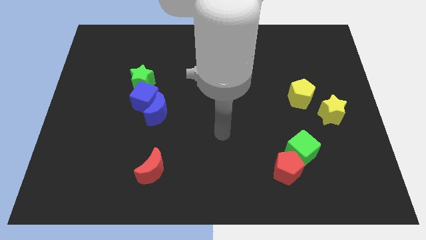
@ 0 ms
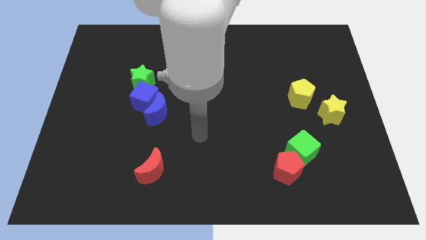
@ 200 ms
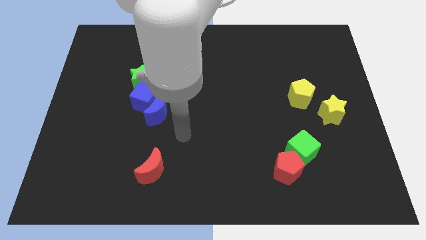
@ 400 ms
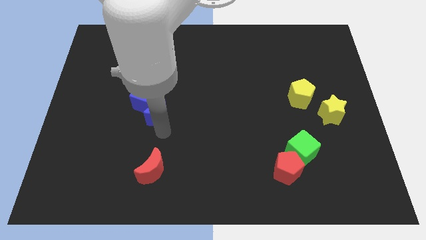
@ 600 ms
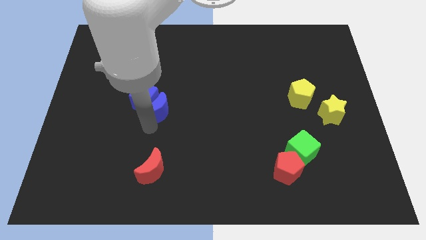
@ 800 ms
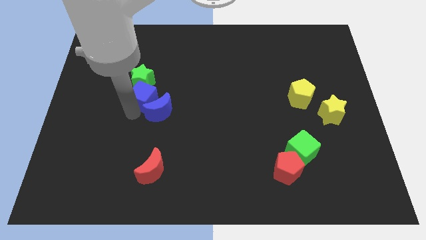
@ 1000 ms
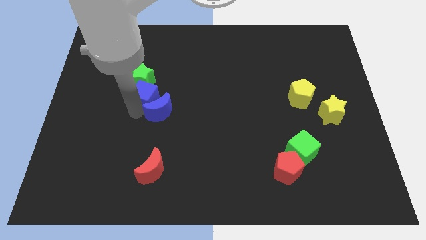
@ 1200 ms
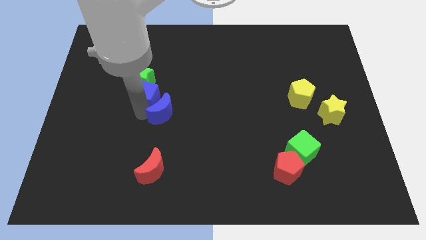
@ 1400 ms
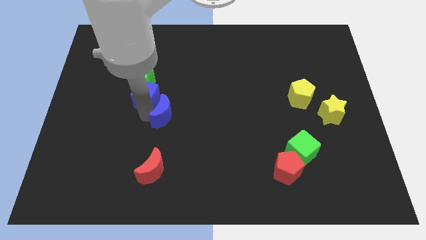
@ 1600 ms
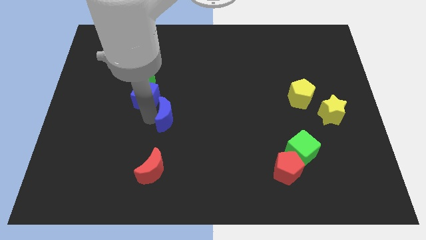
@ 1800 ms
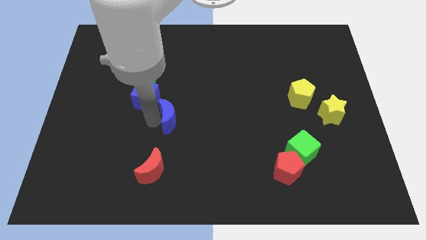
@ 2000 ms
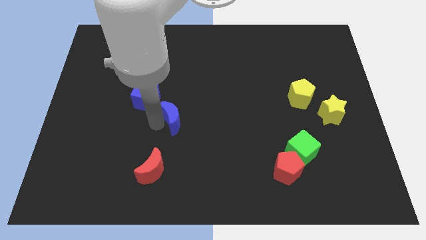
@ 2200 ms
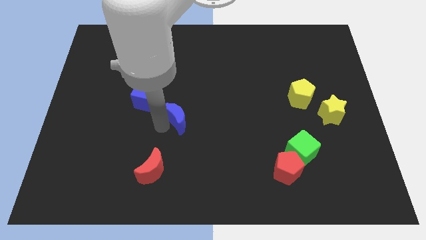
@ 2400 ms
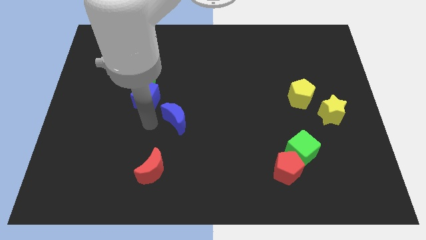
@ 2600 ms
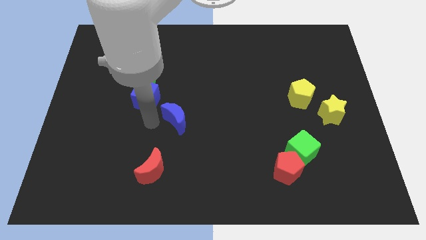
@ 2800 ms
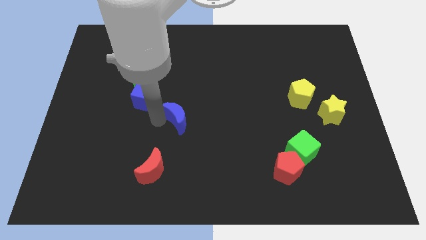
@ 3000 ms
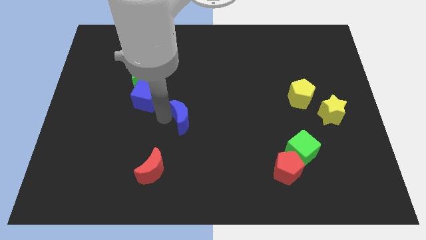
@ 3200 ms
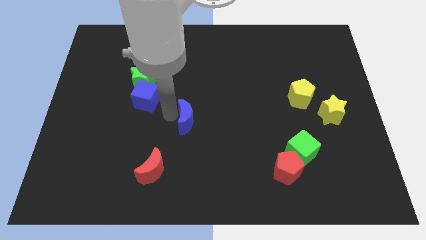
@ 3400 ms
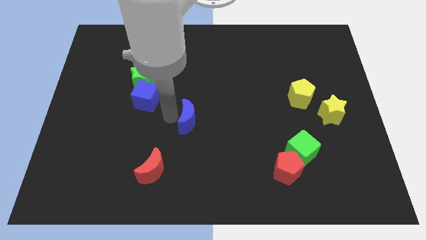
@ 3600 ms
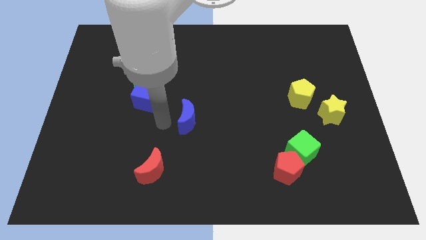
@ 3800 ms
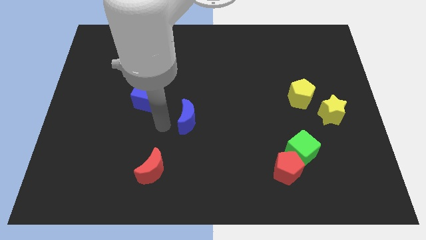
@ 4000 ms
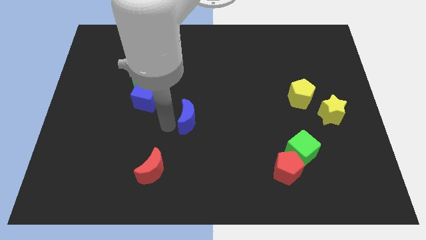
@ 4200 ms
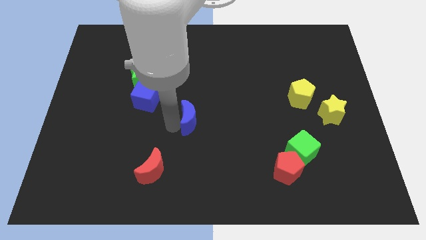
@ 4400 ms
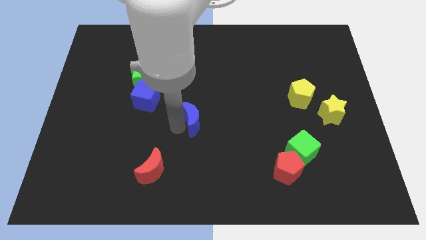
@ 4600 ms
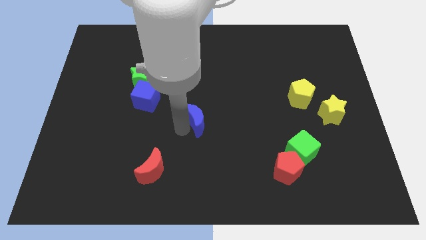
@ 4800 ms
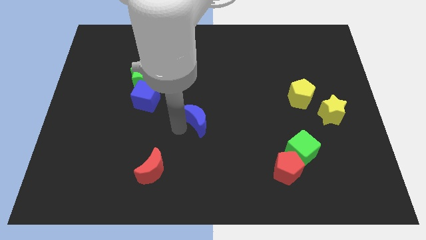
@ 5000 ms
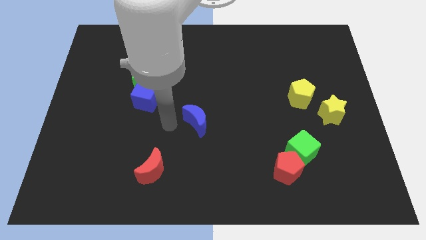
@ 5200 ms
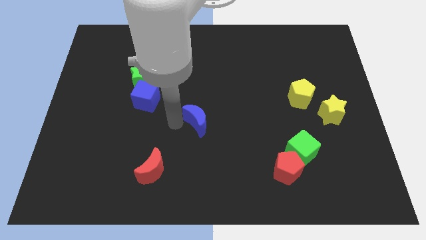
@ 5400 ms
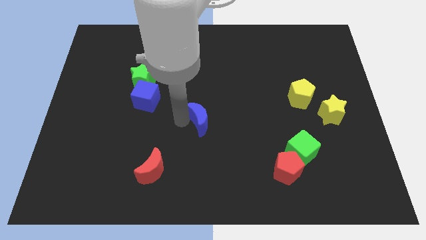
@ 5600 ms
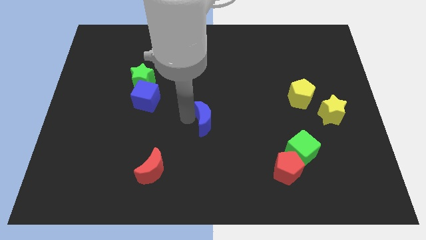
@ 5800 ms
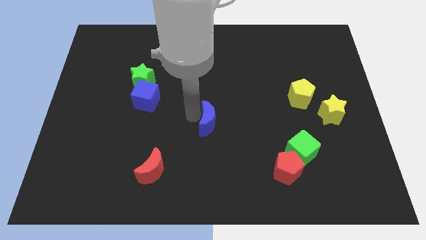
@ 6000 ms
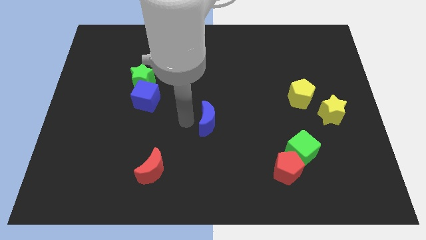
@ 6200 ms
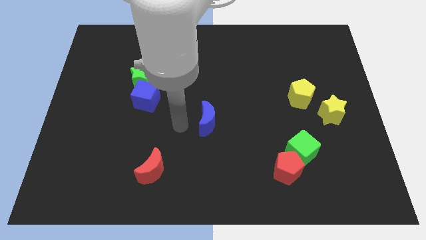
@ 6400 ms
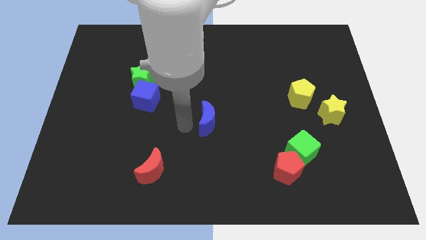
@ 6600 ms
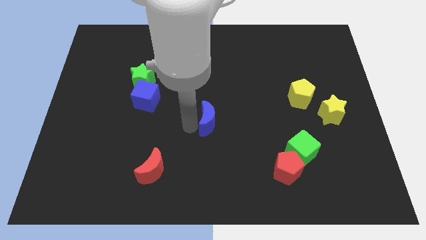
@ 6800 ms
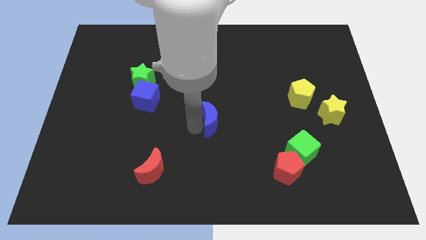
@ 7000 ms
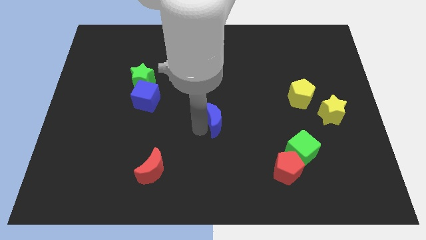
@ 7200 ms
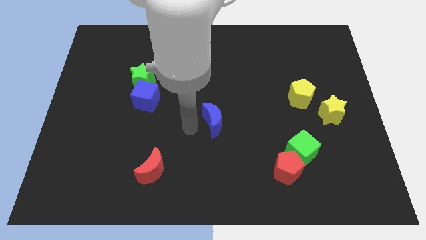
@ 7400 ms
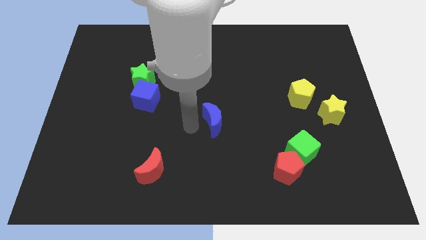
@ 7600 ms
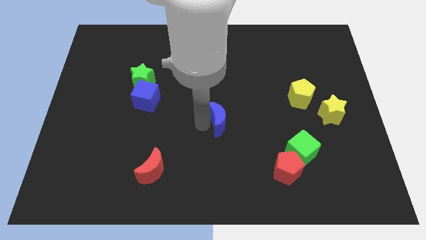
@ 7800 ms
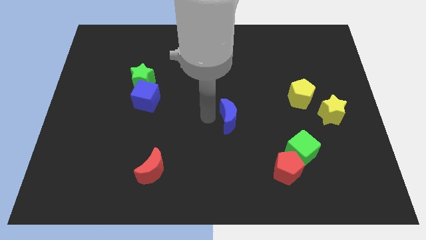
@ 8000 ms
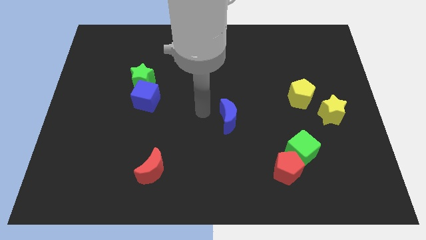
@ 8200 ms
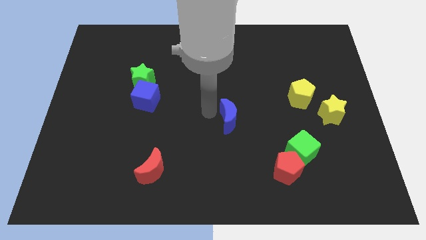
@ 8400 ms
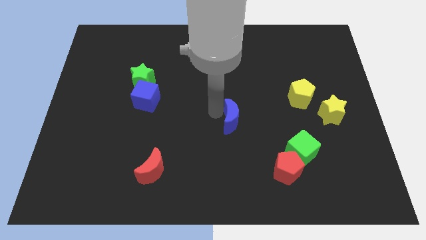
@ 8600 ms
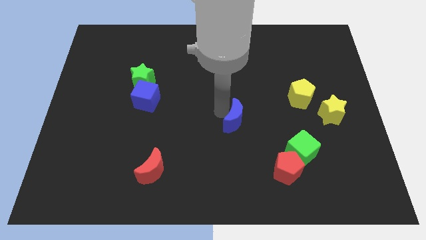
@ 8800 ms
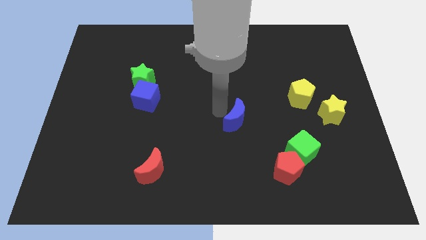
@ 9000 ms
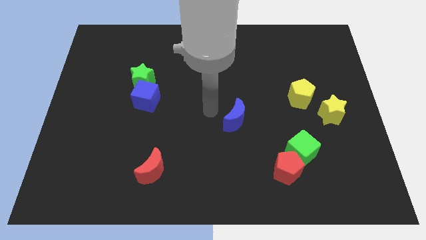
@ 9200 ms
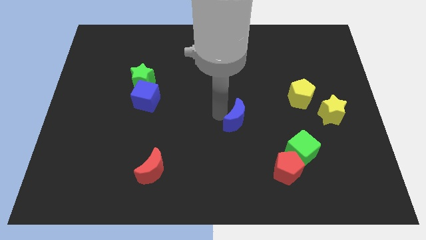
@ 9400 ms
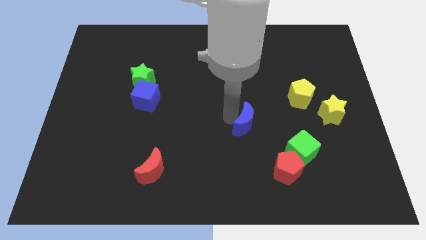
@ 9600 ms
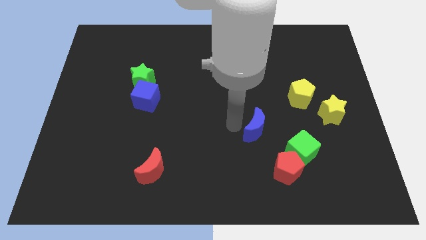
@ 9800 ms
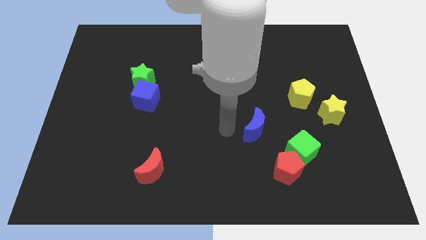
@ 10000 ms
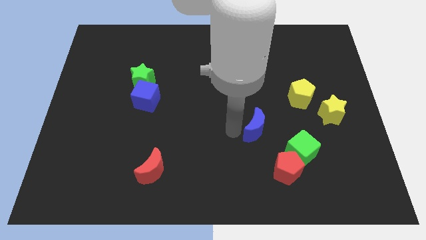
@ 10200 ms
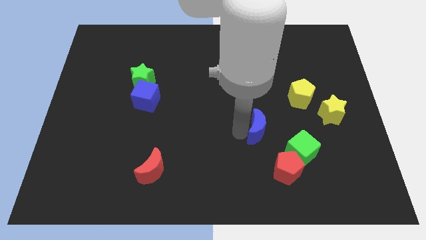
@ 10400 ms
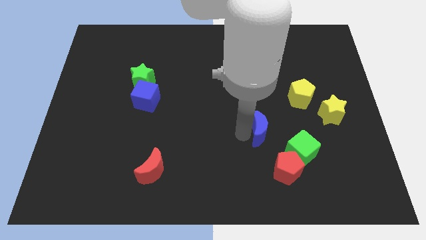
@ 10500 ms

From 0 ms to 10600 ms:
push the blue moon to the top side of the red pentagon

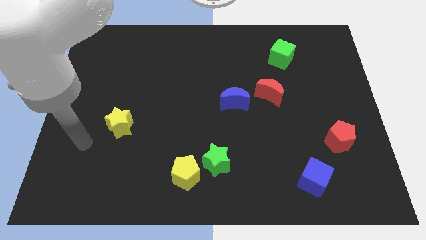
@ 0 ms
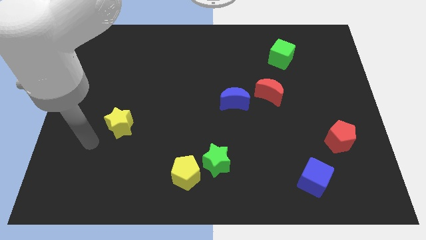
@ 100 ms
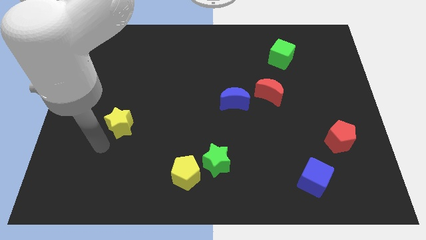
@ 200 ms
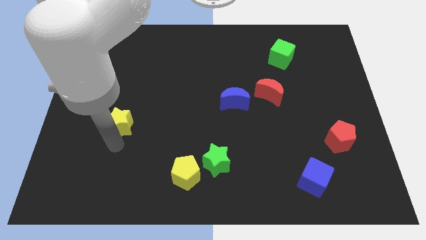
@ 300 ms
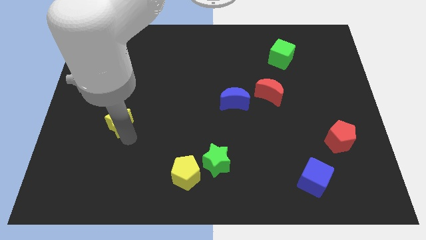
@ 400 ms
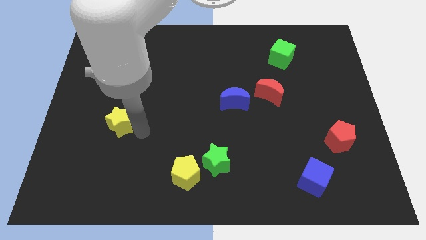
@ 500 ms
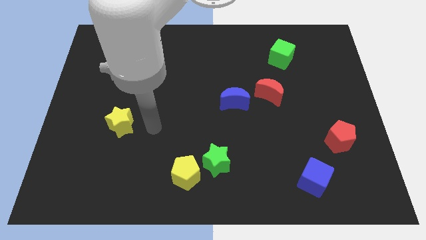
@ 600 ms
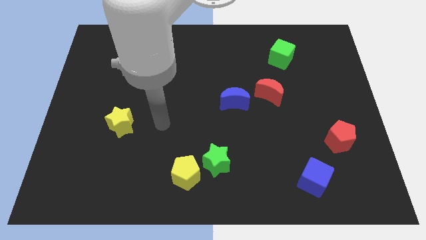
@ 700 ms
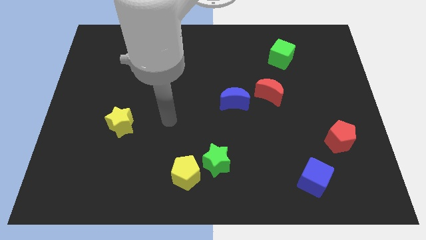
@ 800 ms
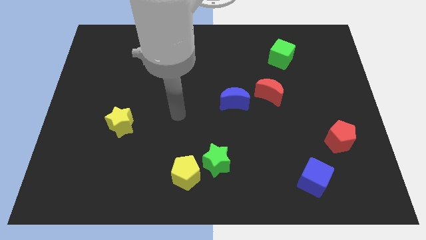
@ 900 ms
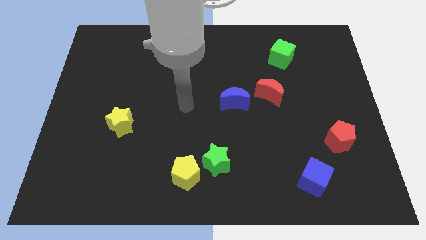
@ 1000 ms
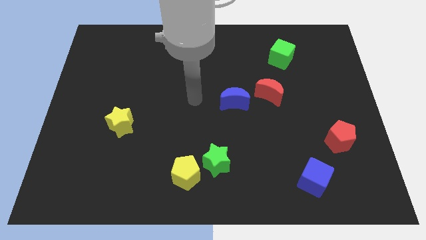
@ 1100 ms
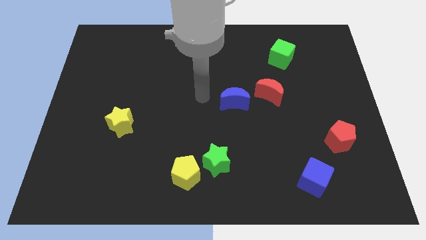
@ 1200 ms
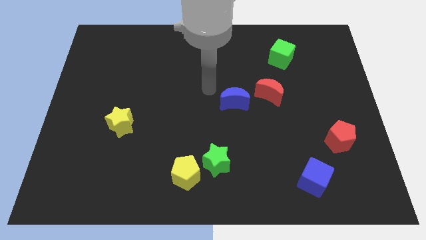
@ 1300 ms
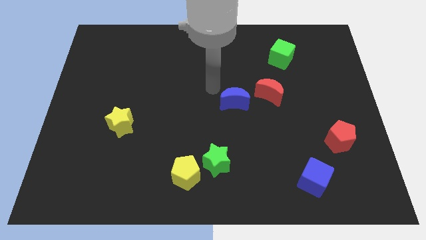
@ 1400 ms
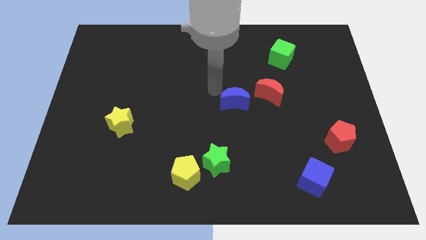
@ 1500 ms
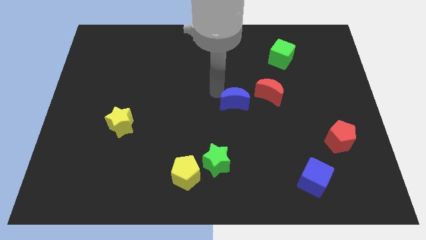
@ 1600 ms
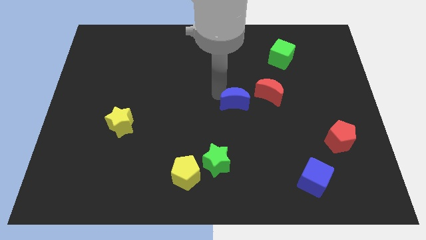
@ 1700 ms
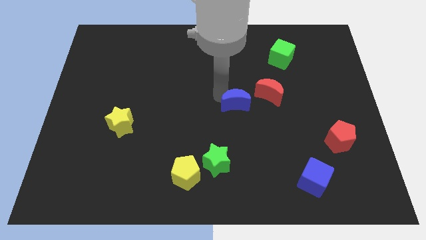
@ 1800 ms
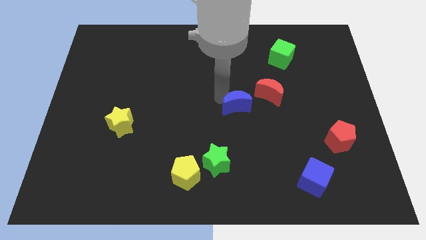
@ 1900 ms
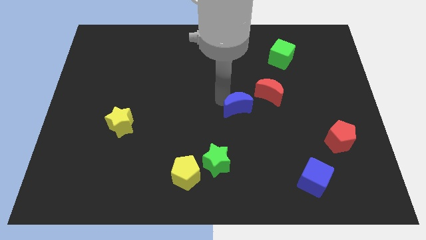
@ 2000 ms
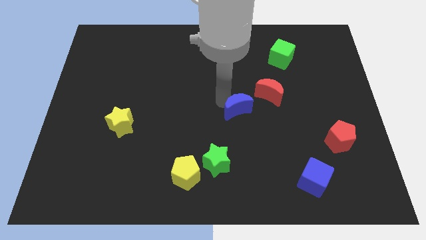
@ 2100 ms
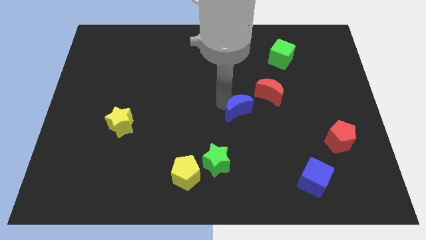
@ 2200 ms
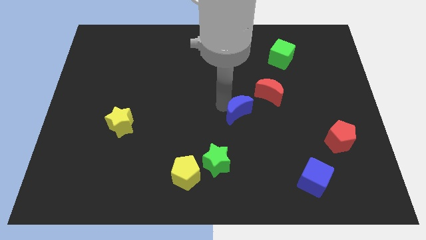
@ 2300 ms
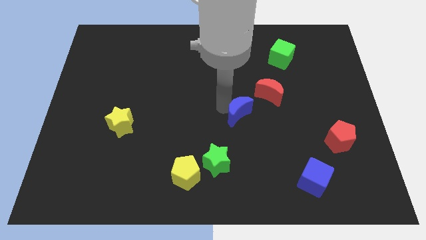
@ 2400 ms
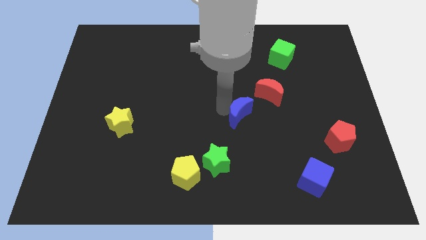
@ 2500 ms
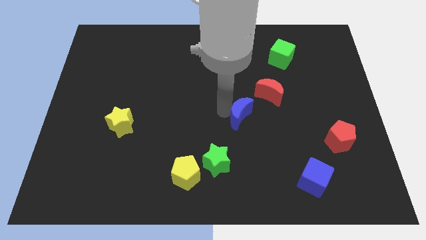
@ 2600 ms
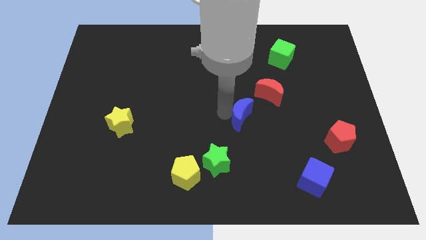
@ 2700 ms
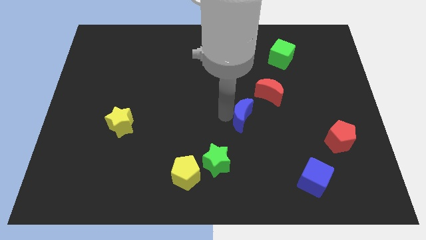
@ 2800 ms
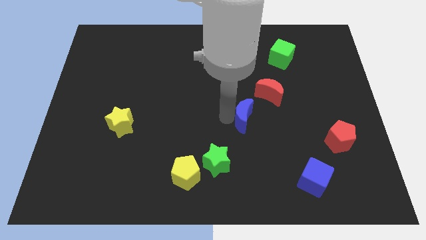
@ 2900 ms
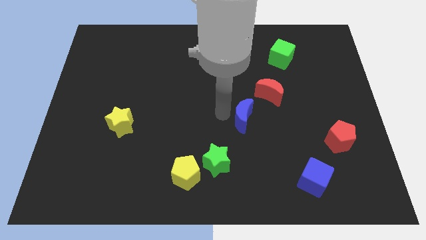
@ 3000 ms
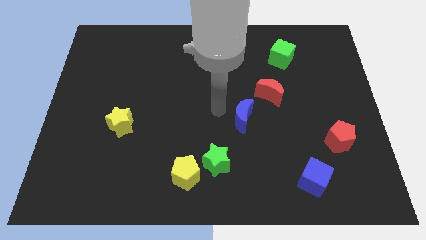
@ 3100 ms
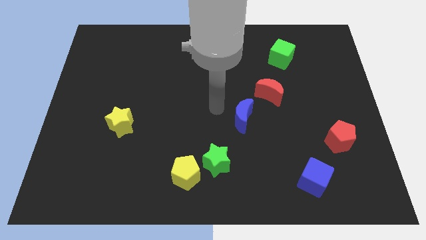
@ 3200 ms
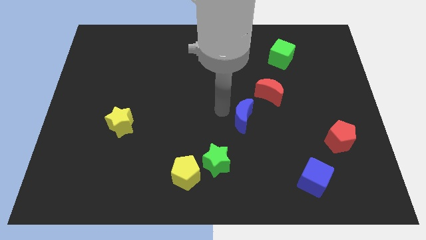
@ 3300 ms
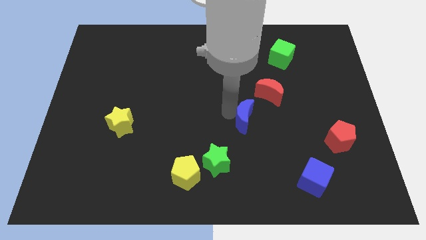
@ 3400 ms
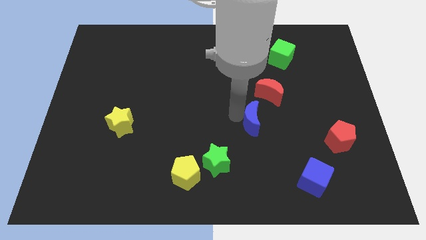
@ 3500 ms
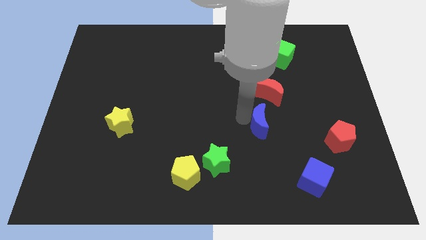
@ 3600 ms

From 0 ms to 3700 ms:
push the blue moon below the red moon
